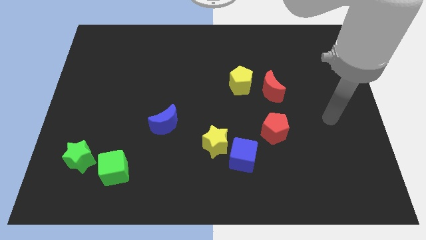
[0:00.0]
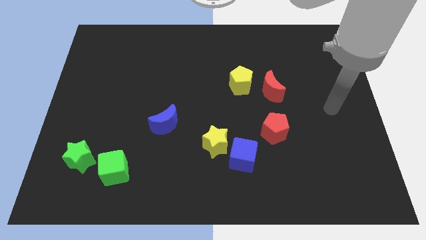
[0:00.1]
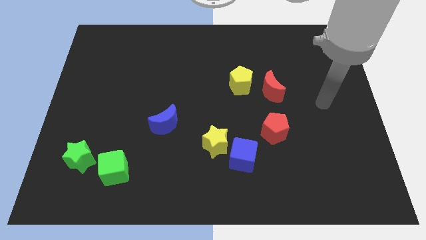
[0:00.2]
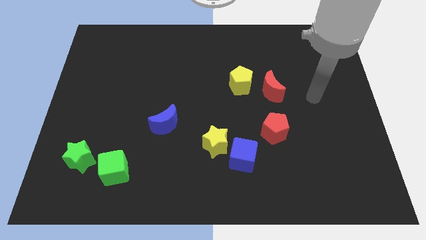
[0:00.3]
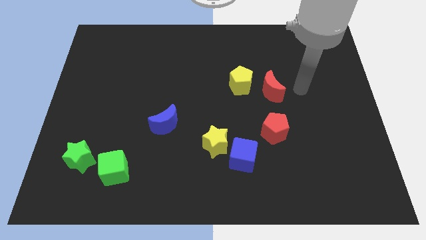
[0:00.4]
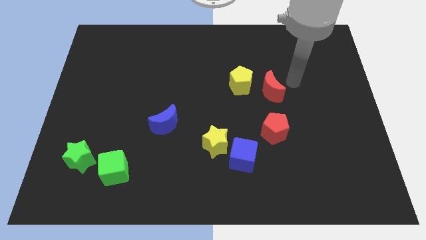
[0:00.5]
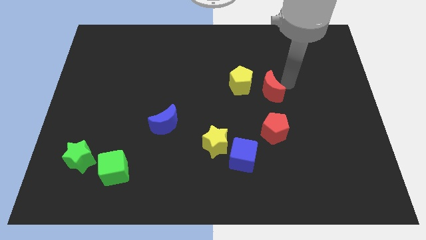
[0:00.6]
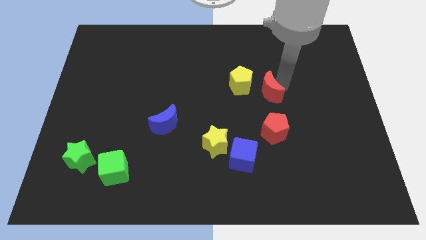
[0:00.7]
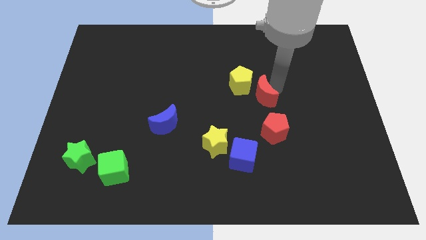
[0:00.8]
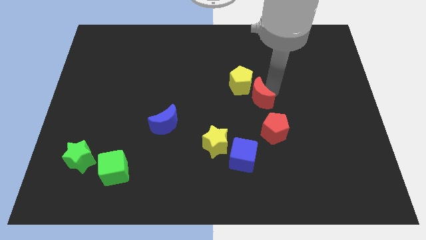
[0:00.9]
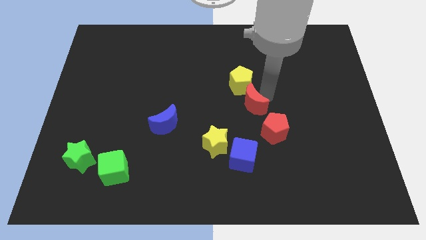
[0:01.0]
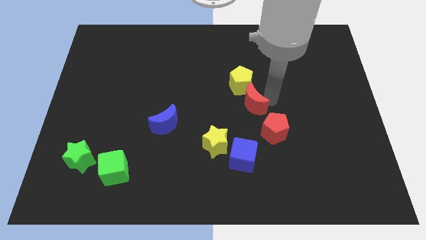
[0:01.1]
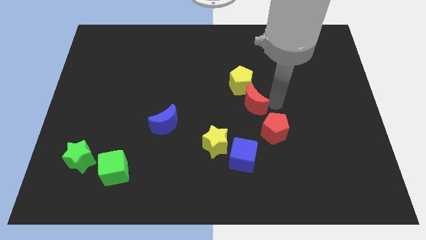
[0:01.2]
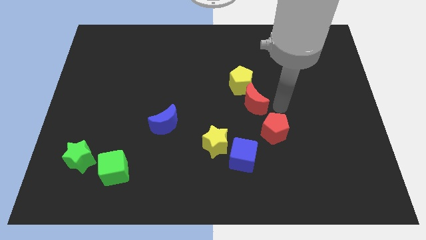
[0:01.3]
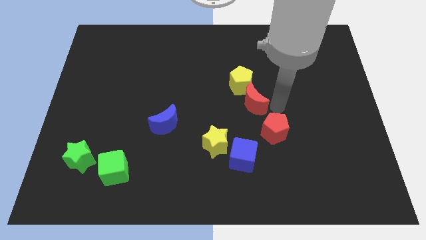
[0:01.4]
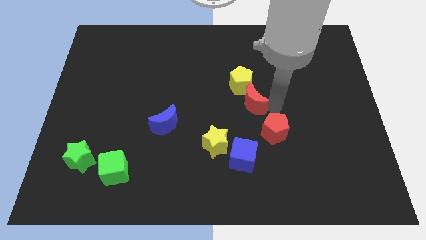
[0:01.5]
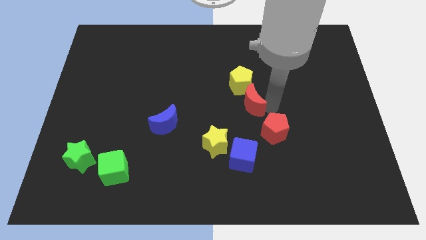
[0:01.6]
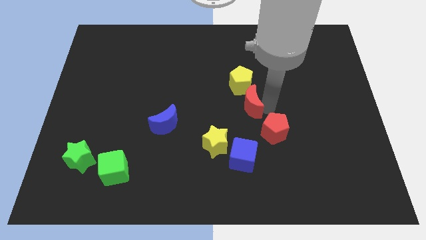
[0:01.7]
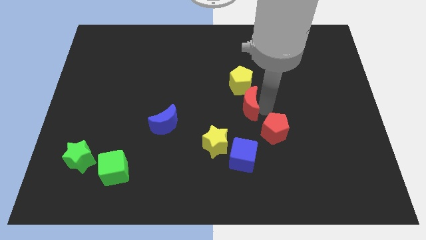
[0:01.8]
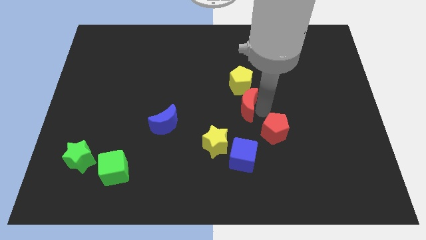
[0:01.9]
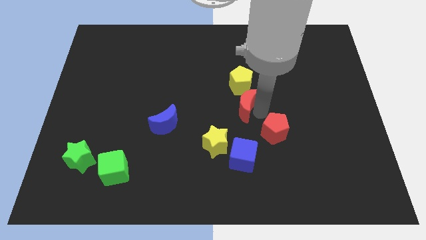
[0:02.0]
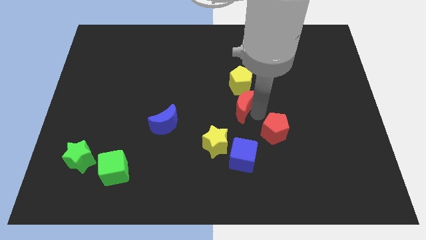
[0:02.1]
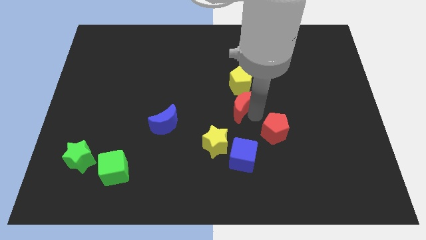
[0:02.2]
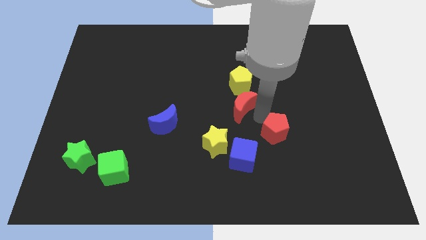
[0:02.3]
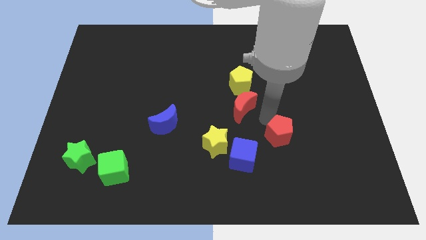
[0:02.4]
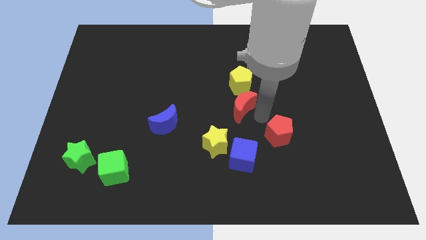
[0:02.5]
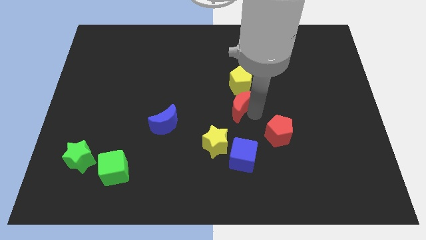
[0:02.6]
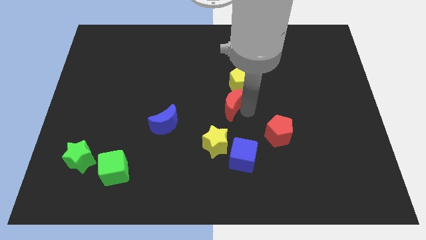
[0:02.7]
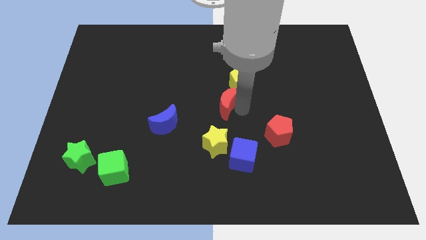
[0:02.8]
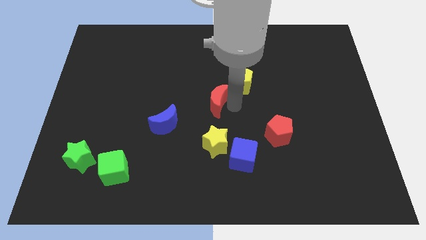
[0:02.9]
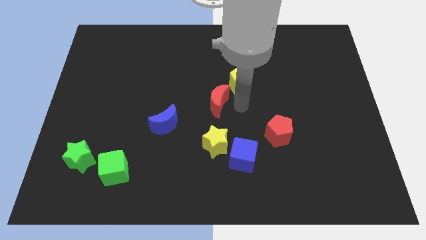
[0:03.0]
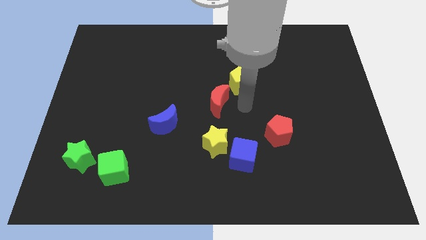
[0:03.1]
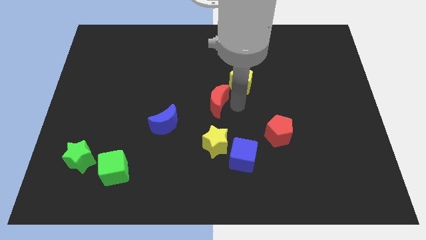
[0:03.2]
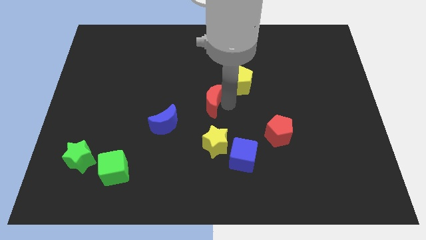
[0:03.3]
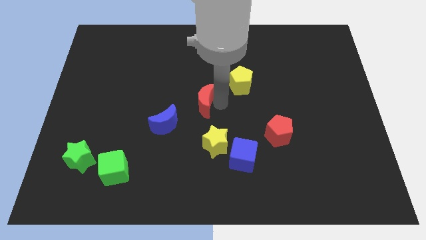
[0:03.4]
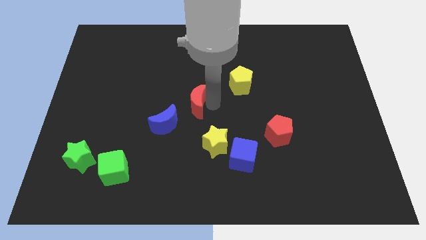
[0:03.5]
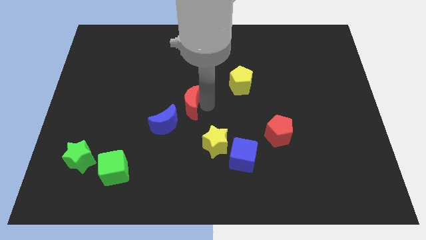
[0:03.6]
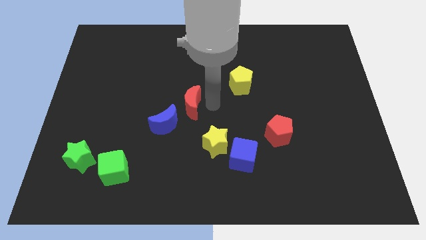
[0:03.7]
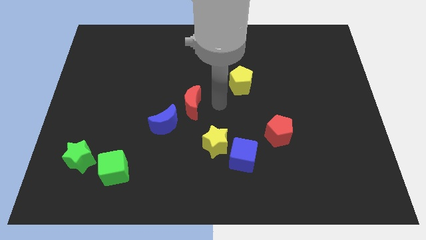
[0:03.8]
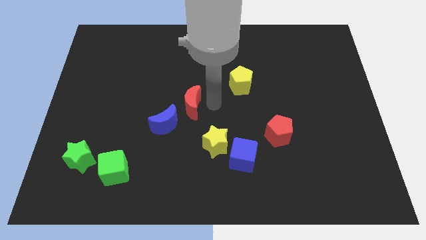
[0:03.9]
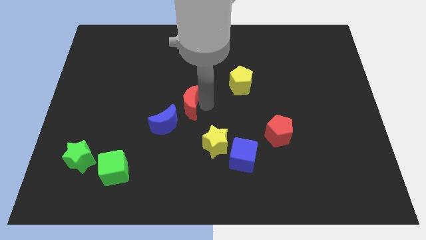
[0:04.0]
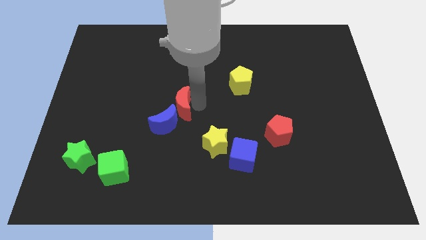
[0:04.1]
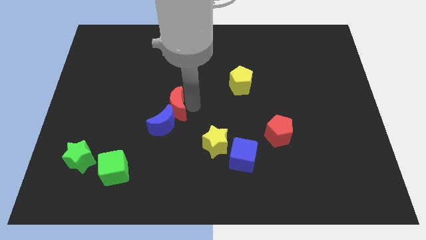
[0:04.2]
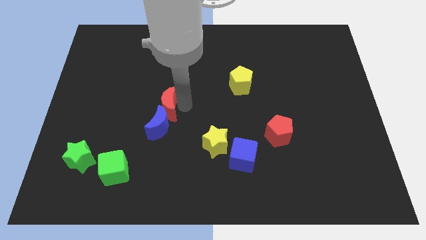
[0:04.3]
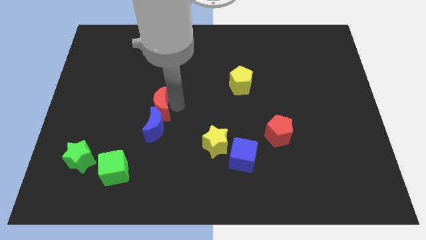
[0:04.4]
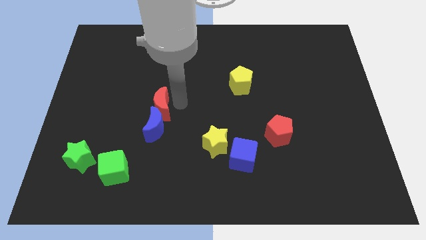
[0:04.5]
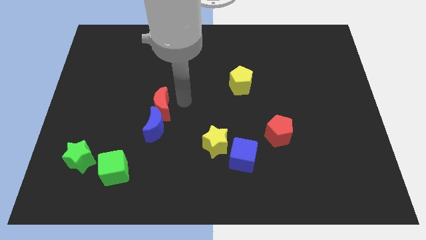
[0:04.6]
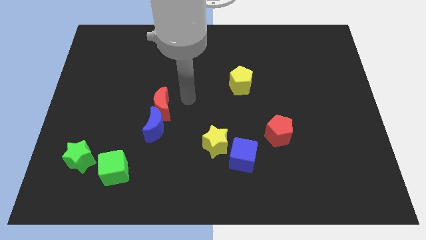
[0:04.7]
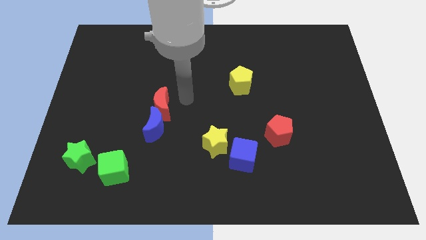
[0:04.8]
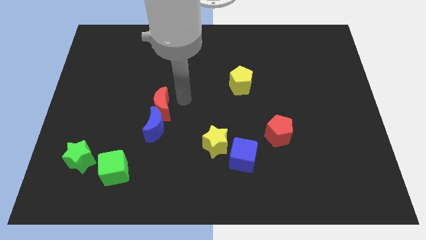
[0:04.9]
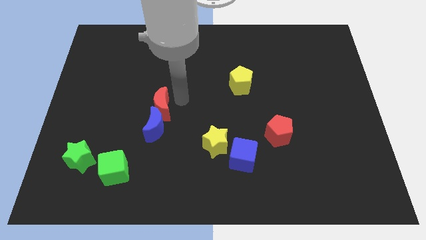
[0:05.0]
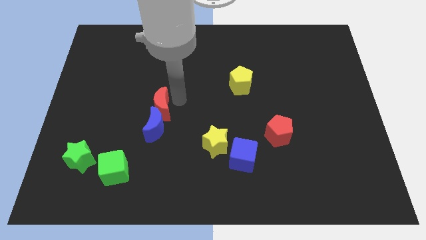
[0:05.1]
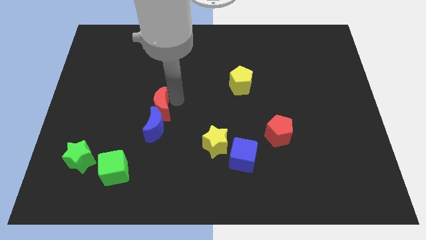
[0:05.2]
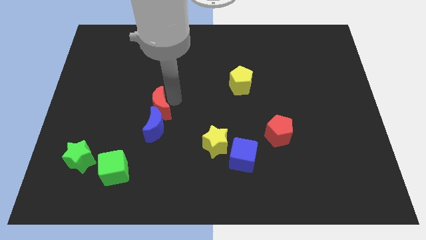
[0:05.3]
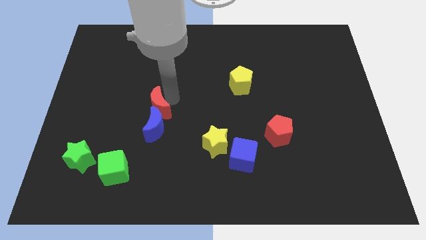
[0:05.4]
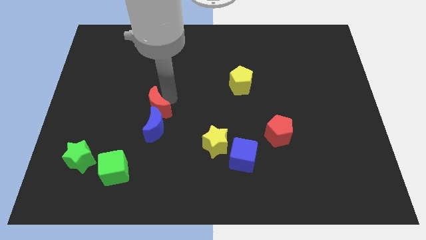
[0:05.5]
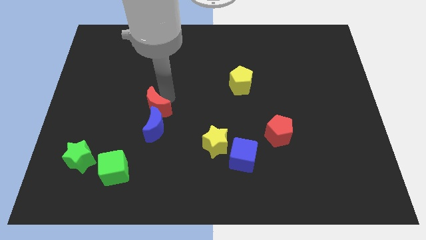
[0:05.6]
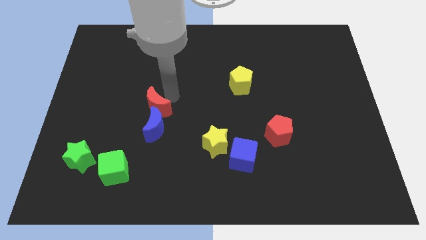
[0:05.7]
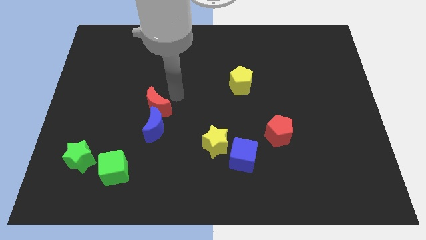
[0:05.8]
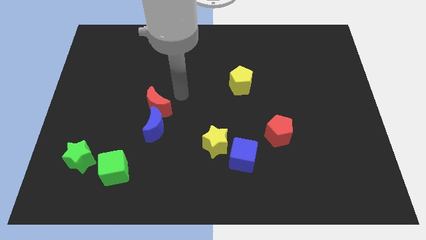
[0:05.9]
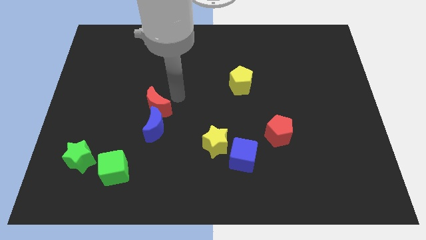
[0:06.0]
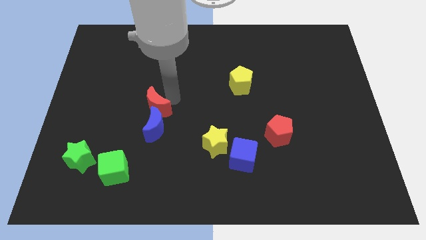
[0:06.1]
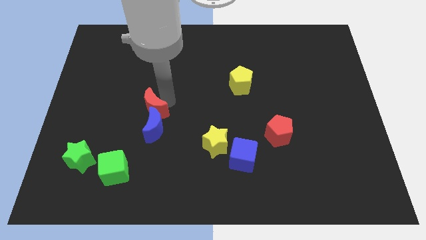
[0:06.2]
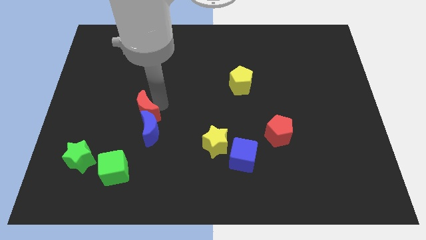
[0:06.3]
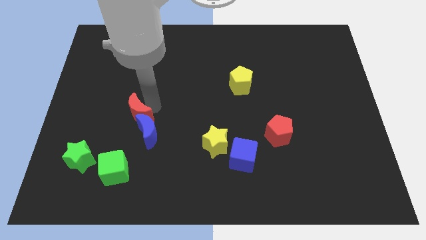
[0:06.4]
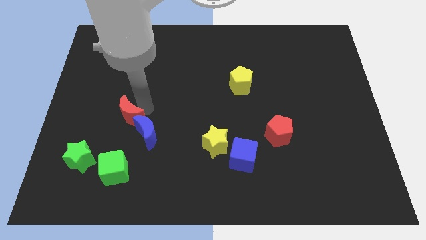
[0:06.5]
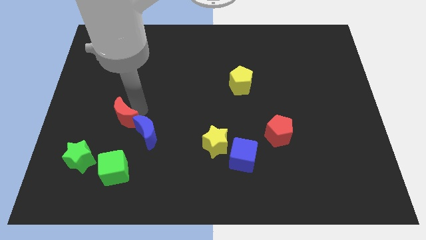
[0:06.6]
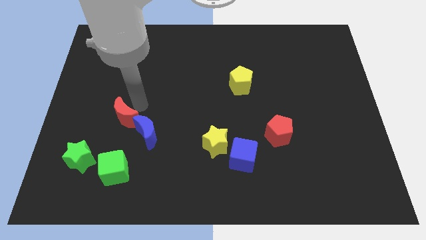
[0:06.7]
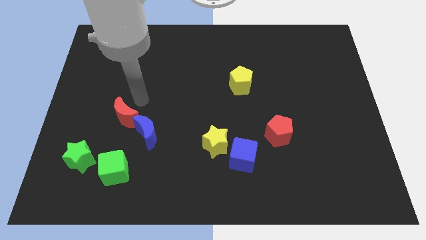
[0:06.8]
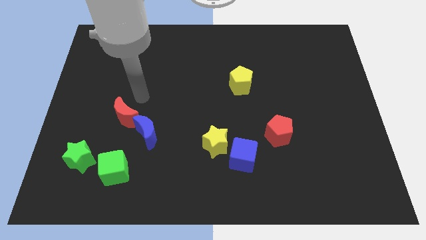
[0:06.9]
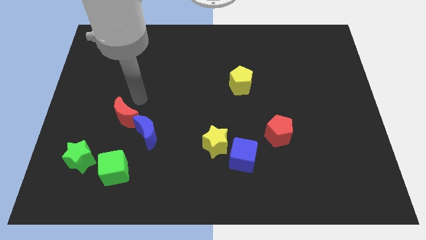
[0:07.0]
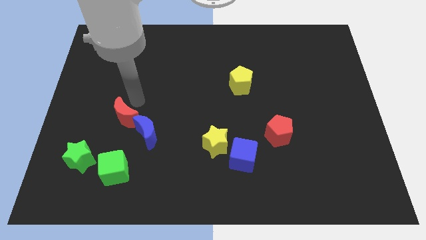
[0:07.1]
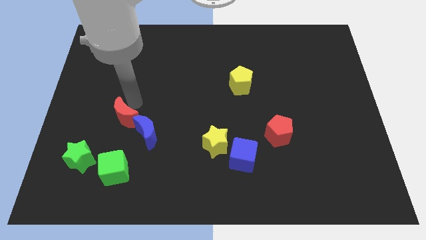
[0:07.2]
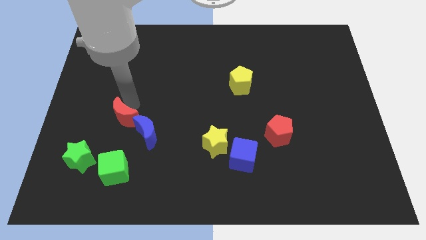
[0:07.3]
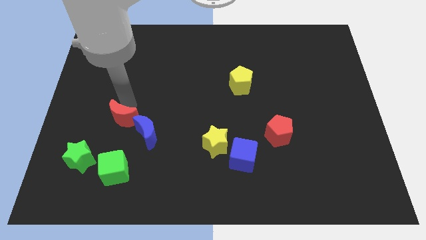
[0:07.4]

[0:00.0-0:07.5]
push the red moon to the top right of the green star
